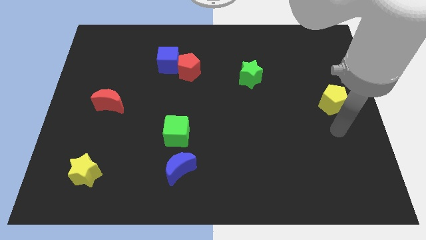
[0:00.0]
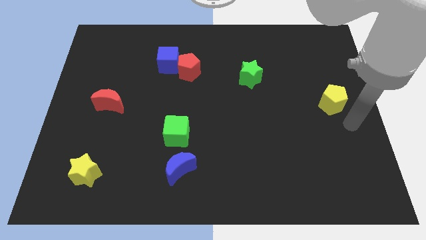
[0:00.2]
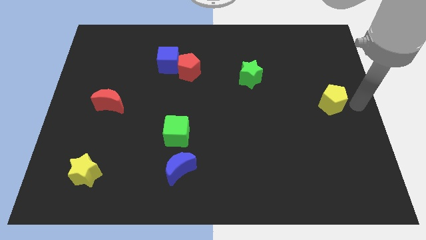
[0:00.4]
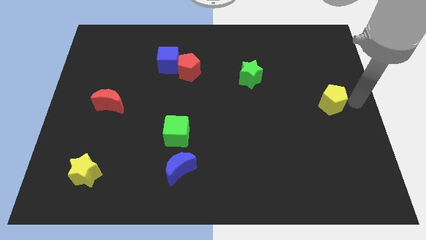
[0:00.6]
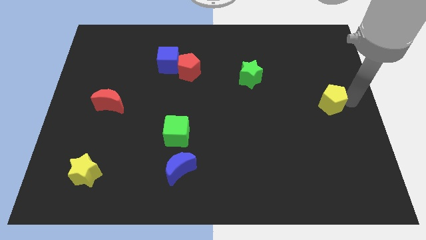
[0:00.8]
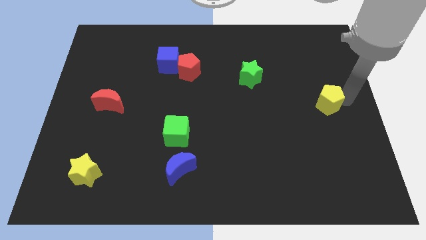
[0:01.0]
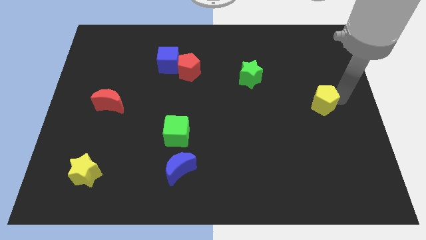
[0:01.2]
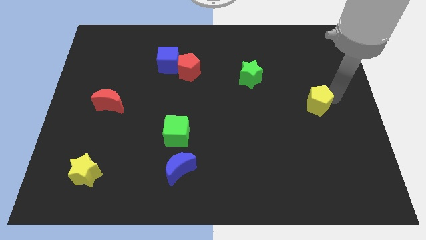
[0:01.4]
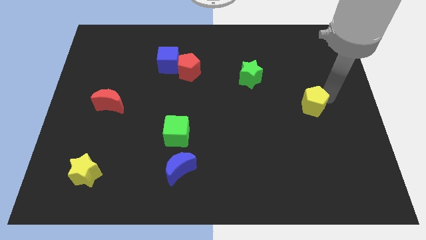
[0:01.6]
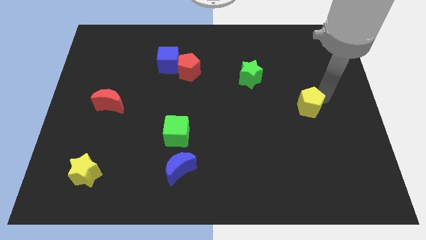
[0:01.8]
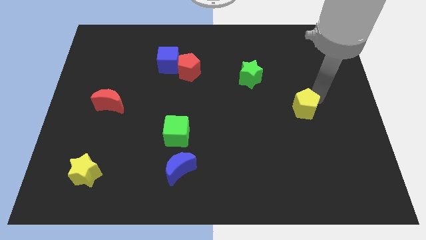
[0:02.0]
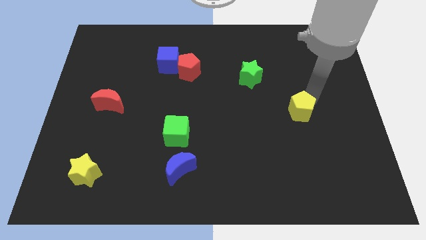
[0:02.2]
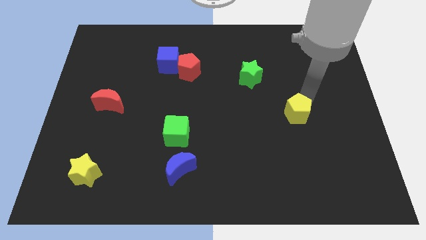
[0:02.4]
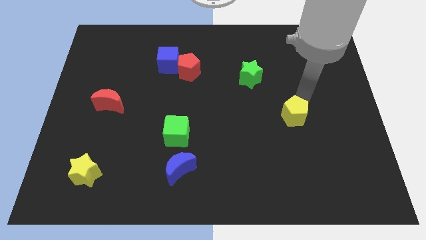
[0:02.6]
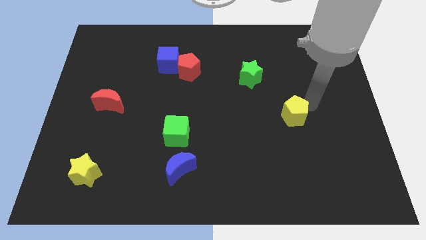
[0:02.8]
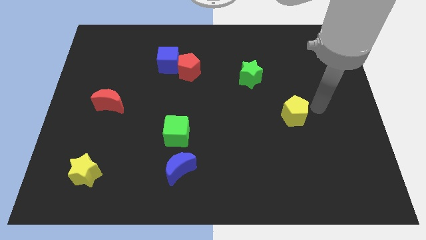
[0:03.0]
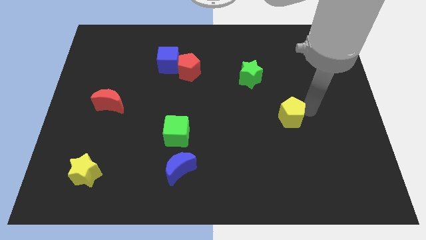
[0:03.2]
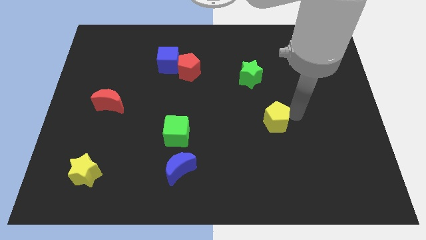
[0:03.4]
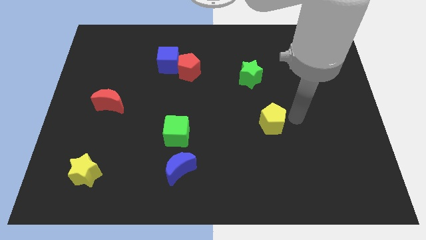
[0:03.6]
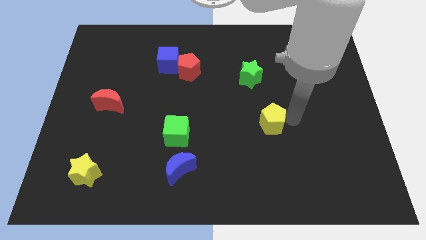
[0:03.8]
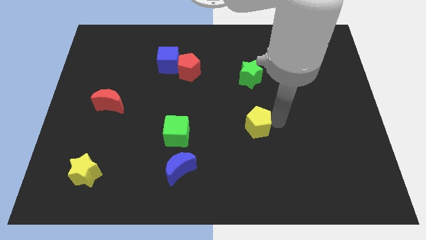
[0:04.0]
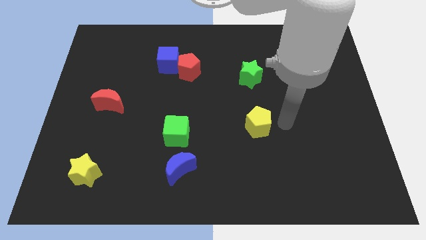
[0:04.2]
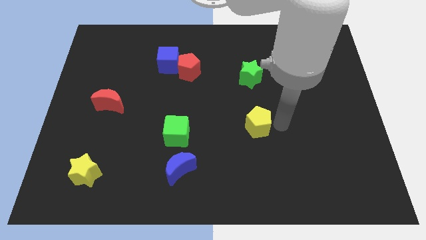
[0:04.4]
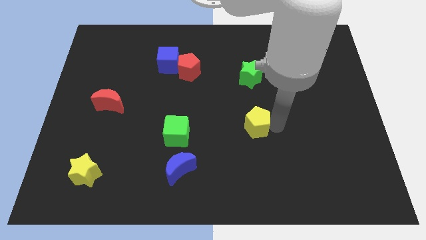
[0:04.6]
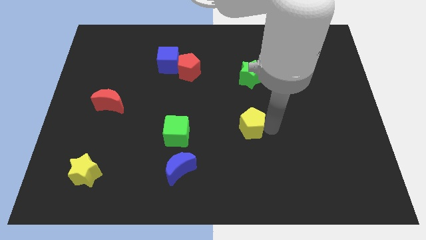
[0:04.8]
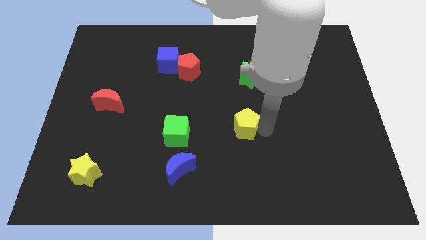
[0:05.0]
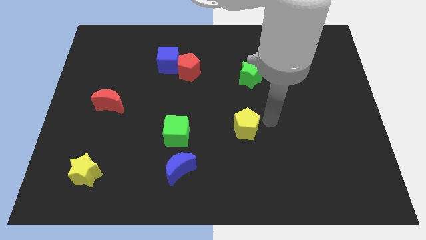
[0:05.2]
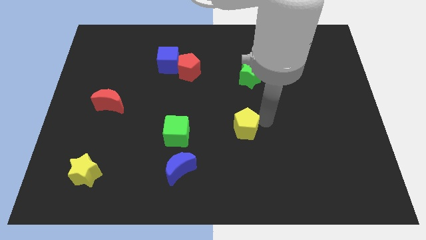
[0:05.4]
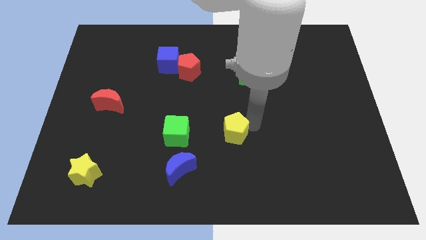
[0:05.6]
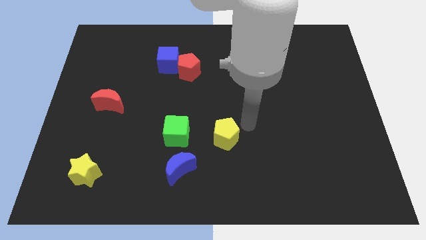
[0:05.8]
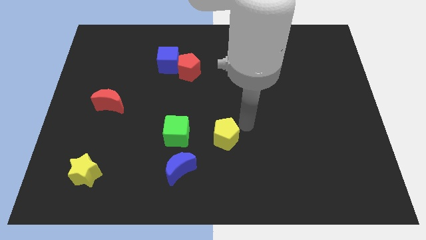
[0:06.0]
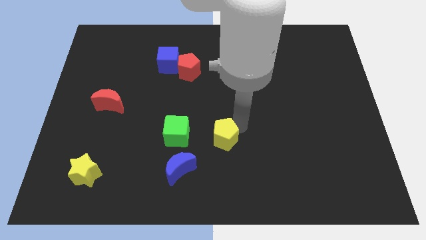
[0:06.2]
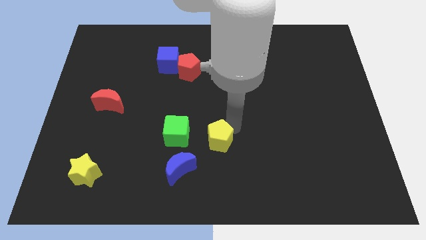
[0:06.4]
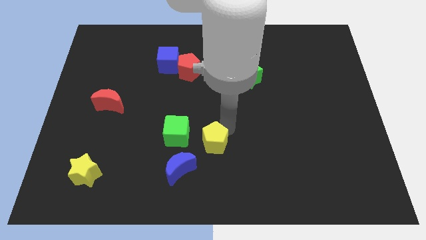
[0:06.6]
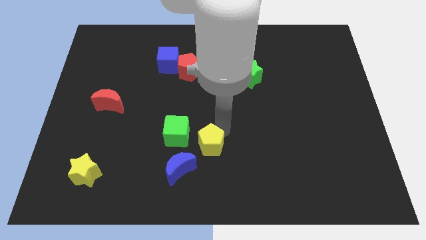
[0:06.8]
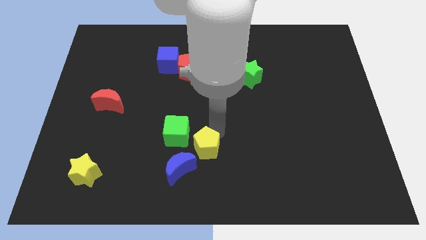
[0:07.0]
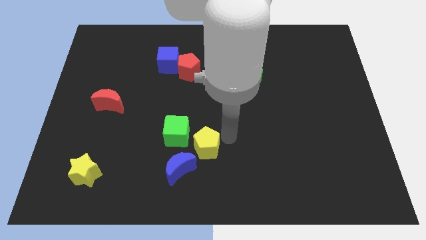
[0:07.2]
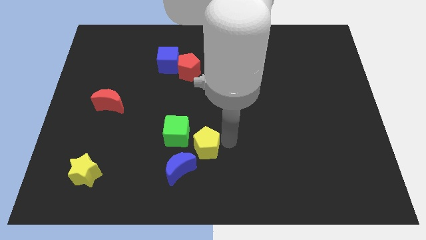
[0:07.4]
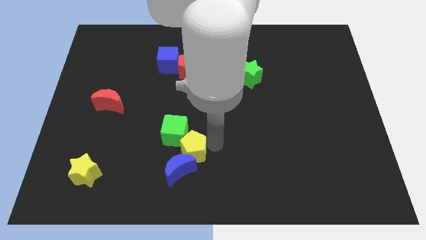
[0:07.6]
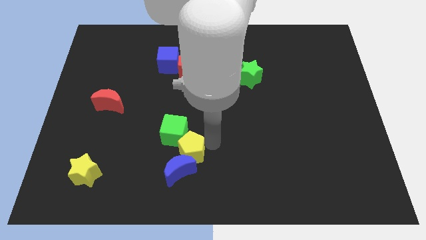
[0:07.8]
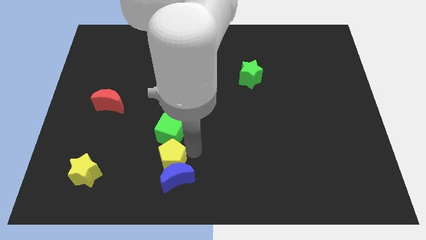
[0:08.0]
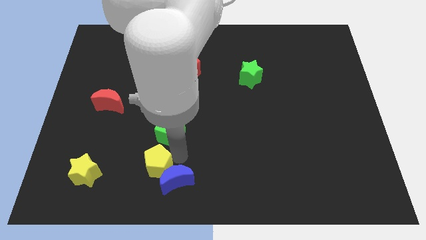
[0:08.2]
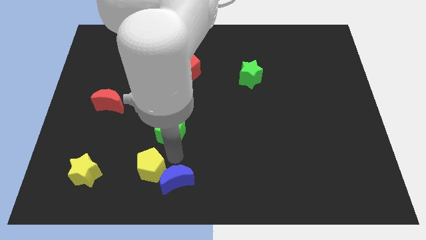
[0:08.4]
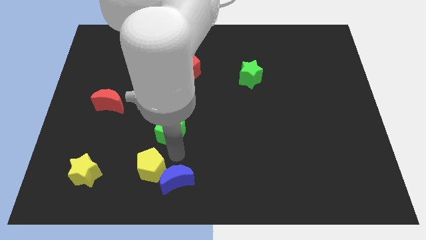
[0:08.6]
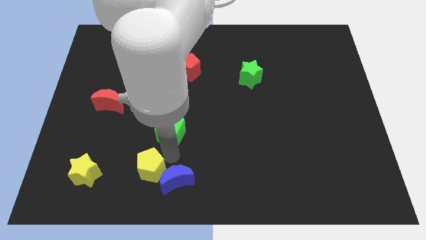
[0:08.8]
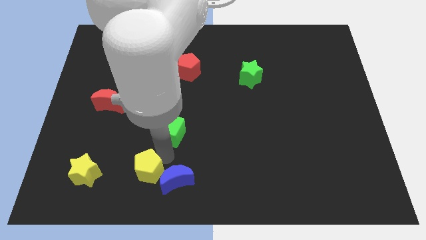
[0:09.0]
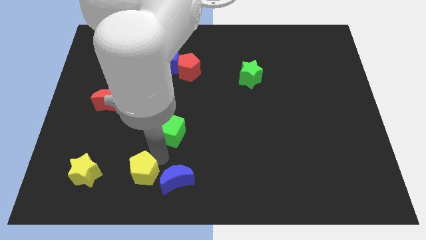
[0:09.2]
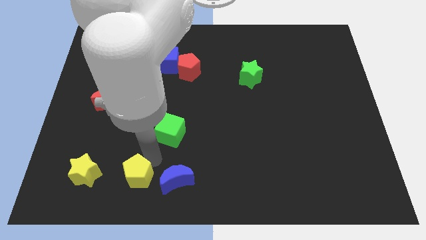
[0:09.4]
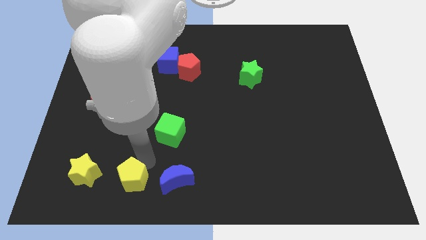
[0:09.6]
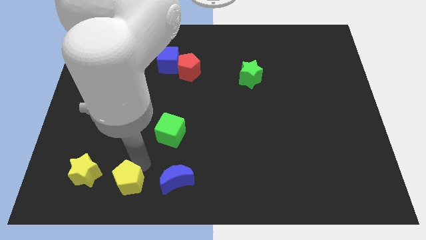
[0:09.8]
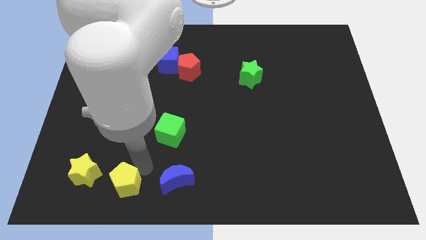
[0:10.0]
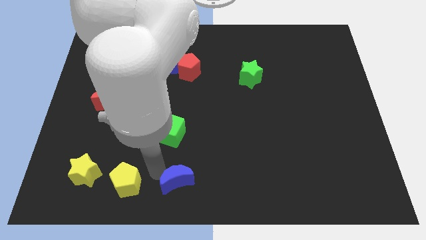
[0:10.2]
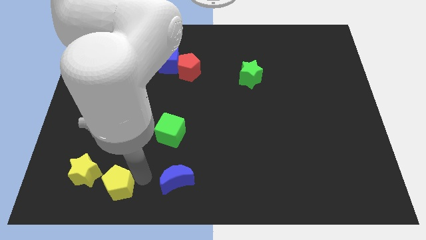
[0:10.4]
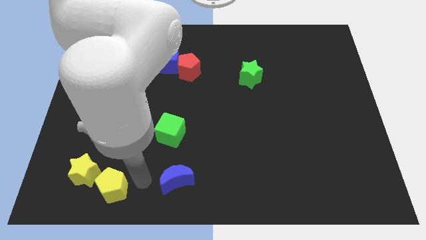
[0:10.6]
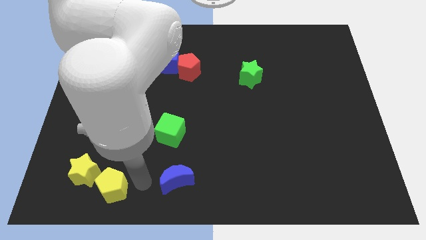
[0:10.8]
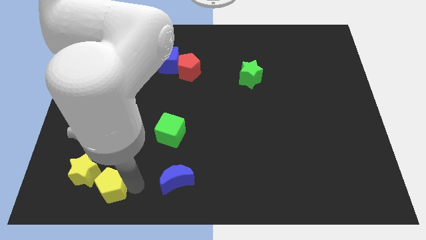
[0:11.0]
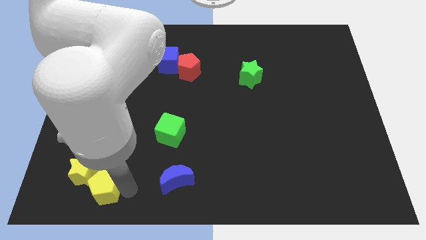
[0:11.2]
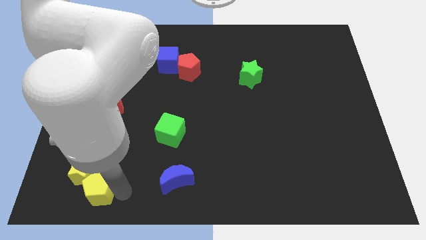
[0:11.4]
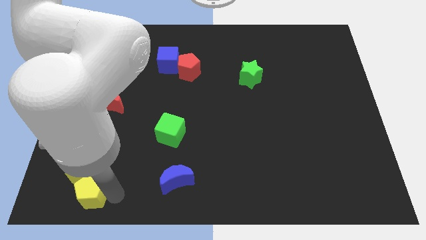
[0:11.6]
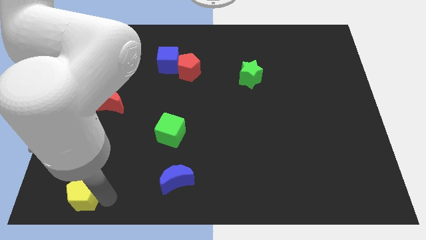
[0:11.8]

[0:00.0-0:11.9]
put the yellow pentagon to the lower left corner

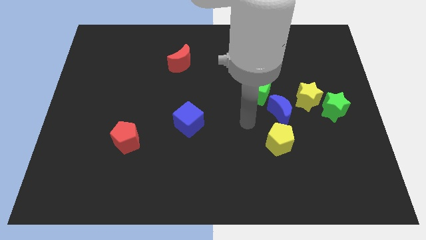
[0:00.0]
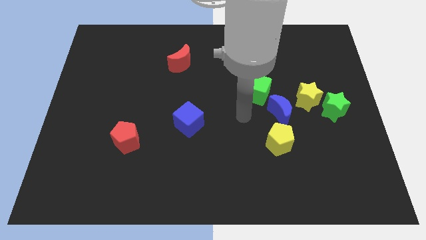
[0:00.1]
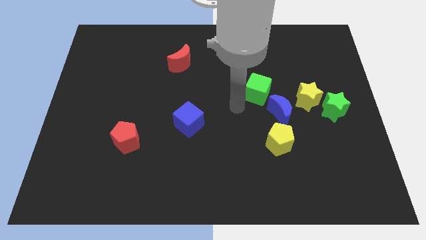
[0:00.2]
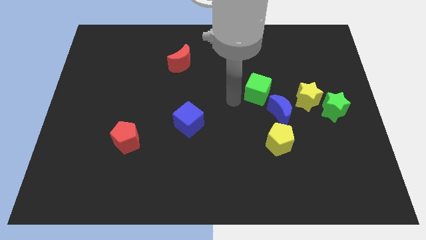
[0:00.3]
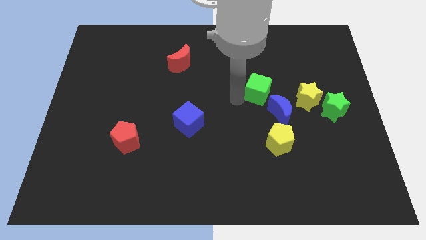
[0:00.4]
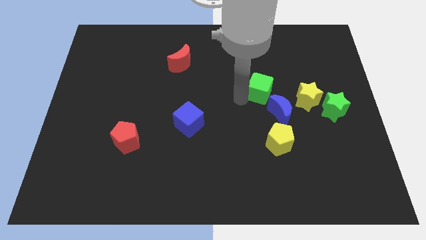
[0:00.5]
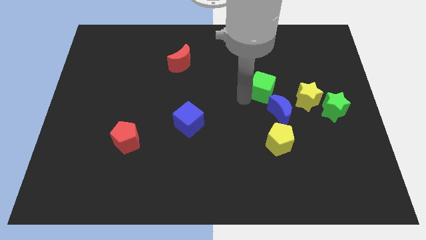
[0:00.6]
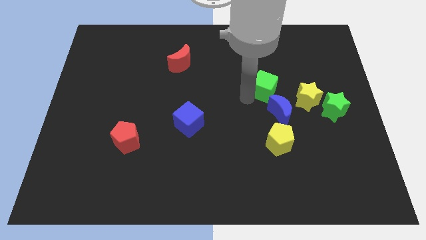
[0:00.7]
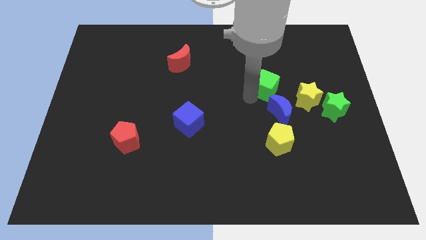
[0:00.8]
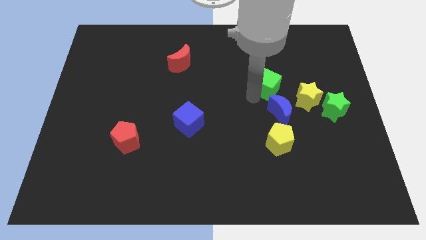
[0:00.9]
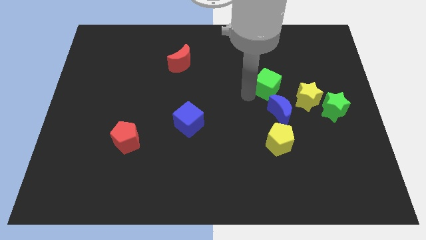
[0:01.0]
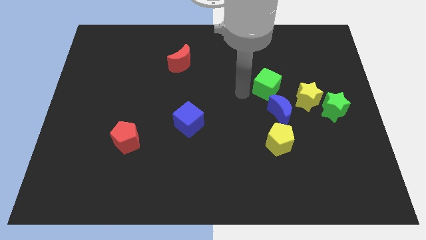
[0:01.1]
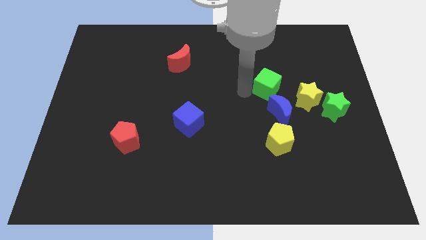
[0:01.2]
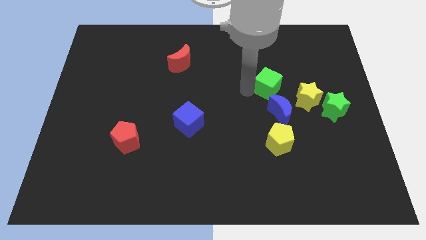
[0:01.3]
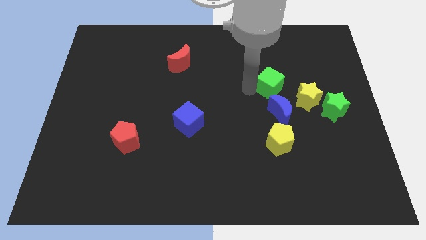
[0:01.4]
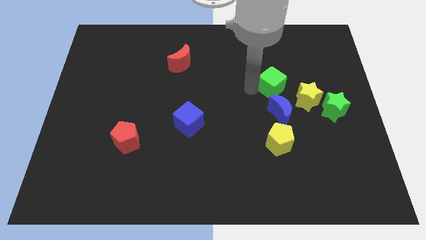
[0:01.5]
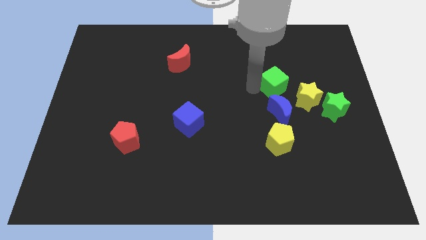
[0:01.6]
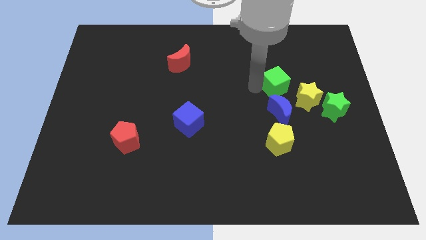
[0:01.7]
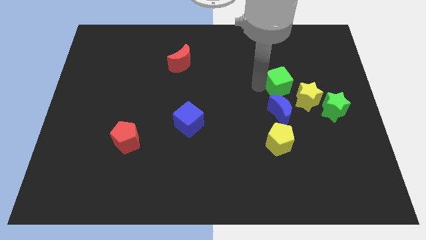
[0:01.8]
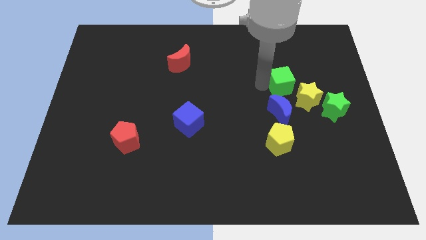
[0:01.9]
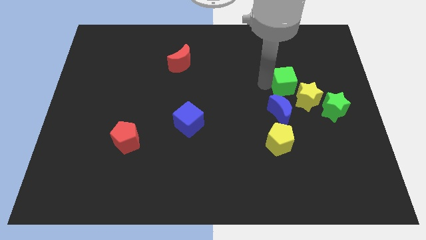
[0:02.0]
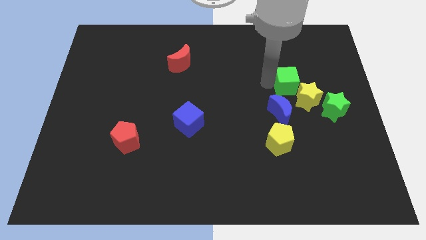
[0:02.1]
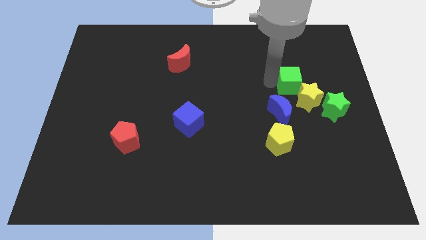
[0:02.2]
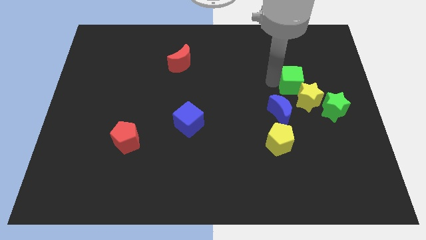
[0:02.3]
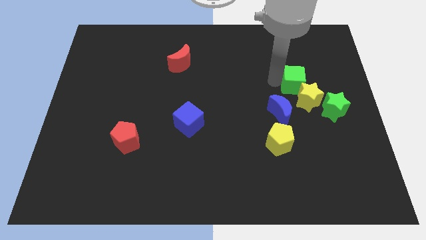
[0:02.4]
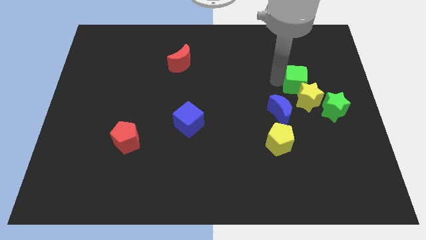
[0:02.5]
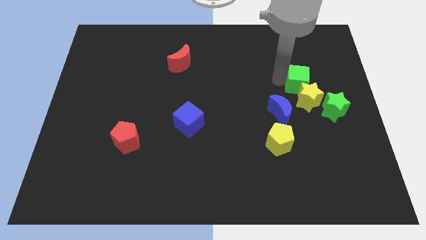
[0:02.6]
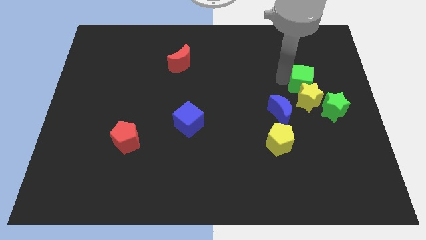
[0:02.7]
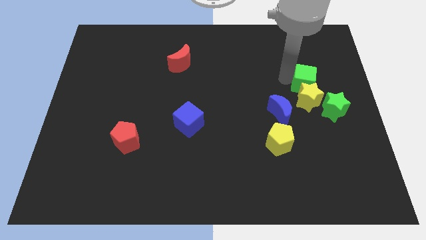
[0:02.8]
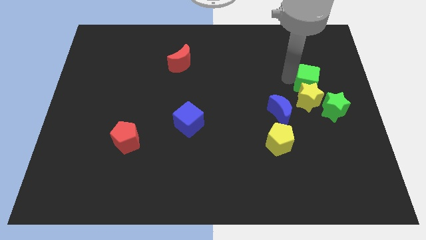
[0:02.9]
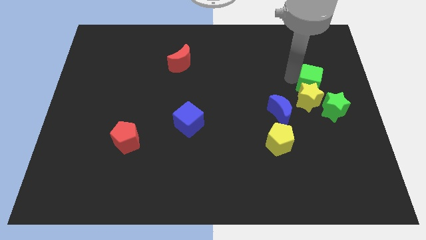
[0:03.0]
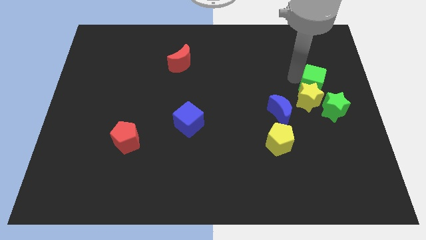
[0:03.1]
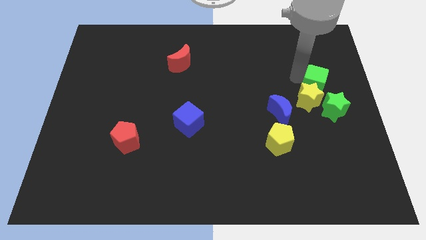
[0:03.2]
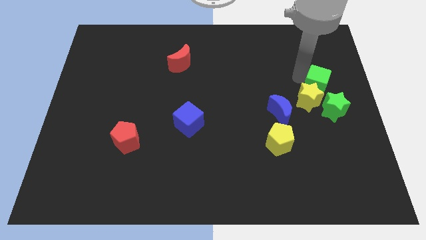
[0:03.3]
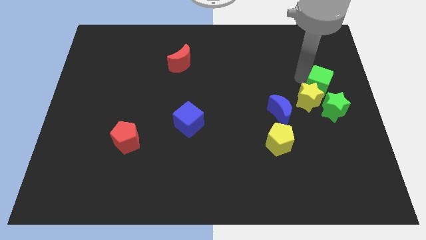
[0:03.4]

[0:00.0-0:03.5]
push the green cube to the right side
